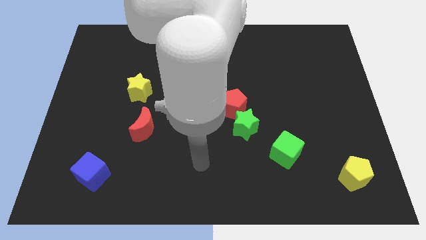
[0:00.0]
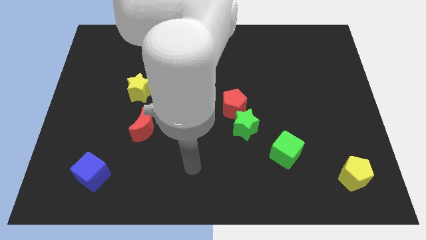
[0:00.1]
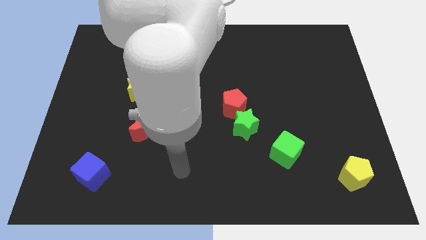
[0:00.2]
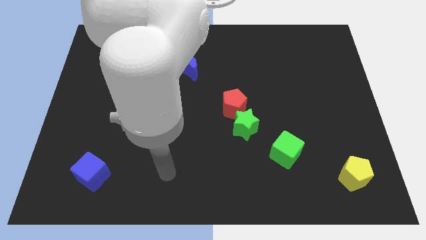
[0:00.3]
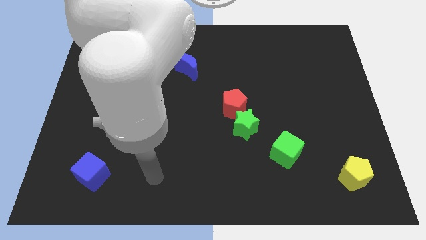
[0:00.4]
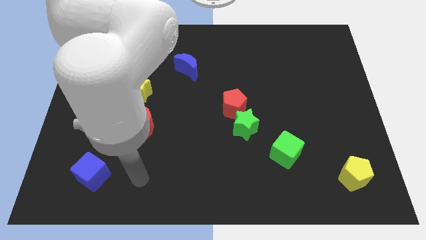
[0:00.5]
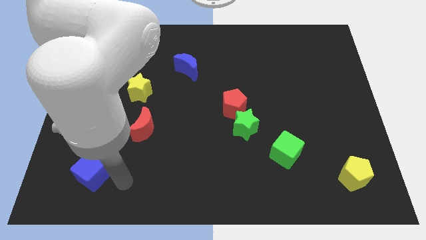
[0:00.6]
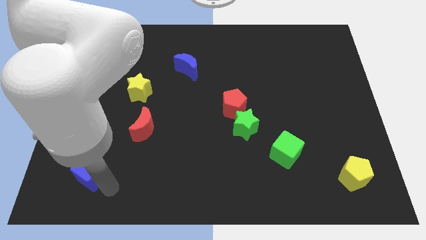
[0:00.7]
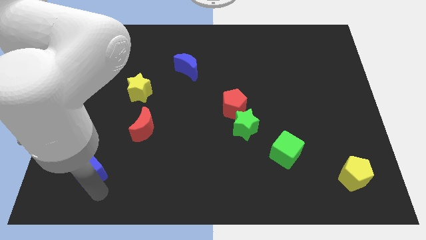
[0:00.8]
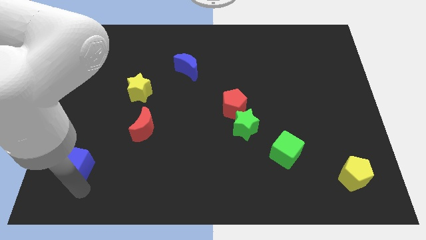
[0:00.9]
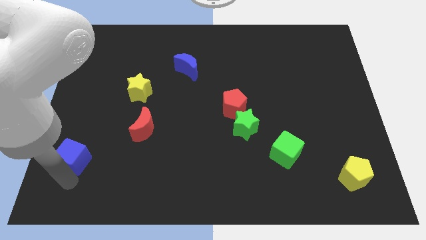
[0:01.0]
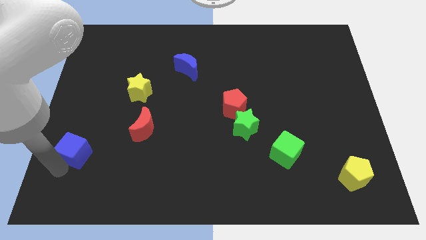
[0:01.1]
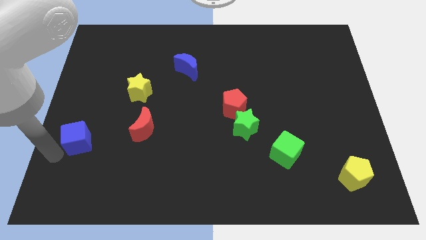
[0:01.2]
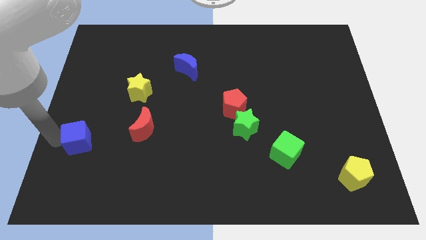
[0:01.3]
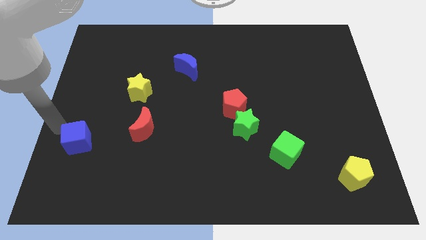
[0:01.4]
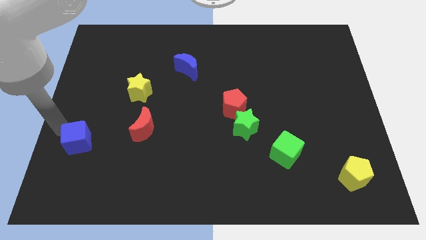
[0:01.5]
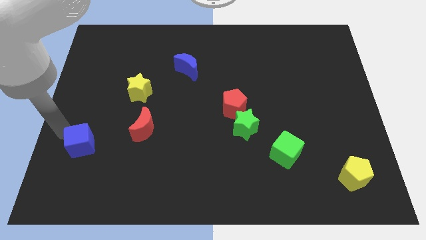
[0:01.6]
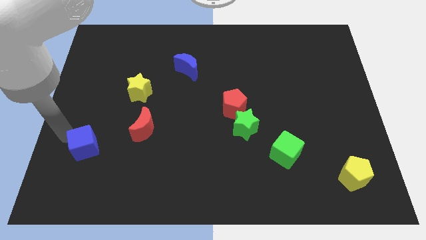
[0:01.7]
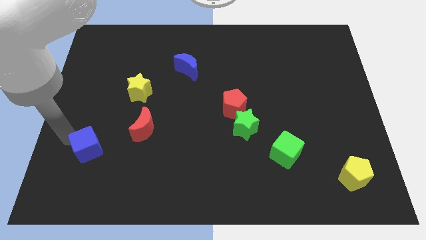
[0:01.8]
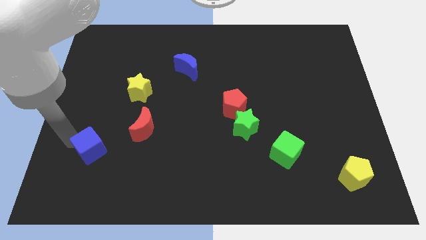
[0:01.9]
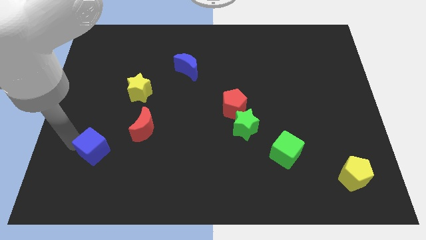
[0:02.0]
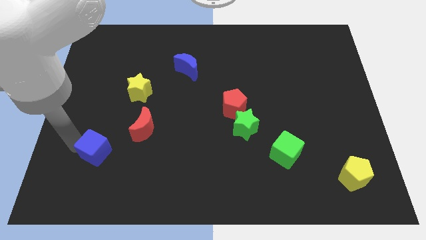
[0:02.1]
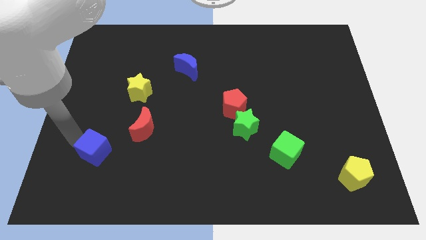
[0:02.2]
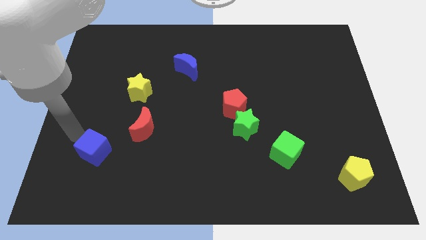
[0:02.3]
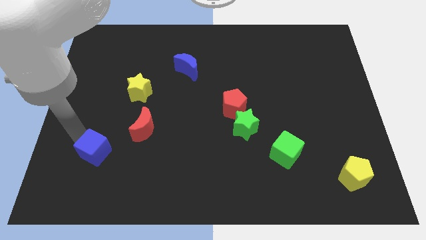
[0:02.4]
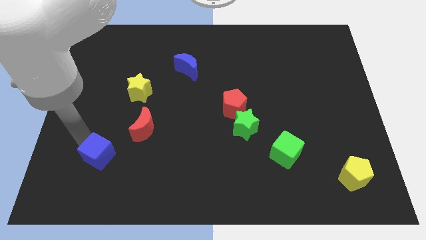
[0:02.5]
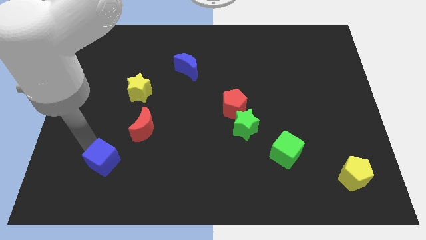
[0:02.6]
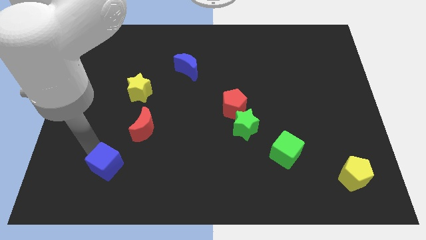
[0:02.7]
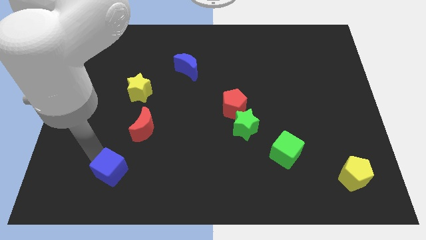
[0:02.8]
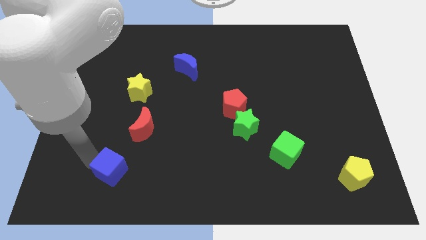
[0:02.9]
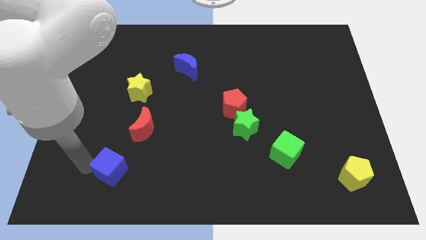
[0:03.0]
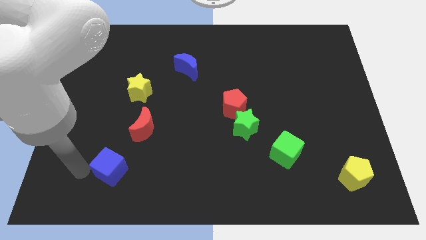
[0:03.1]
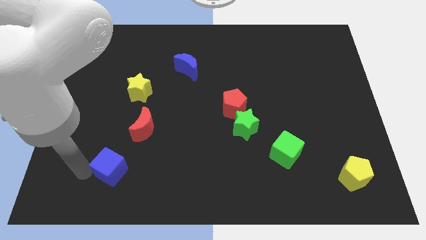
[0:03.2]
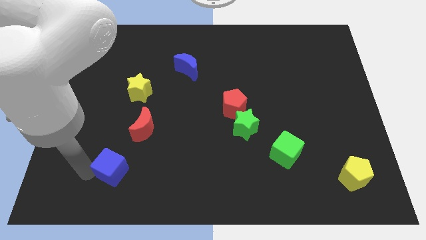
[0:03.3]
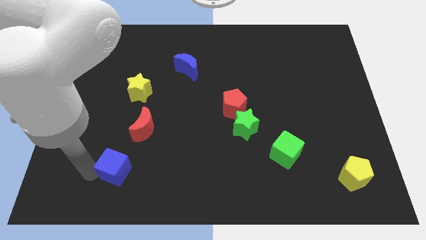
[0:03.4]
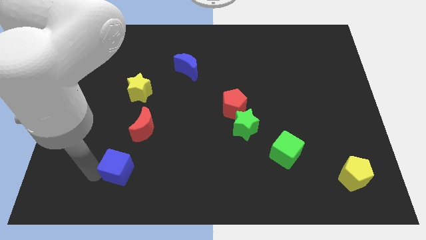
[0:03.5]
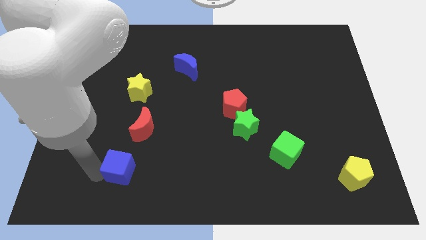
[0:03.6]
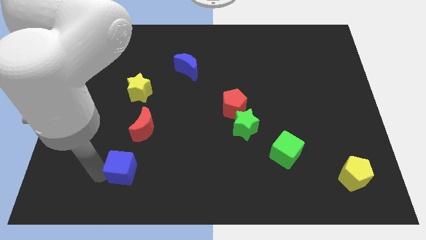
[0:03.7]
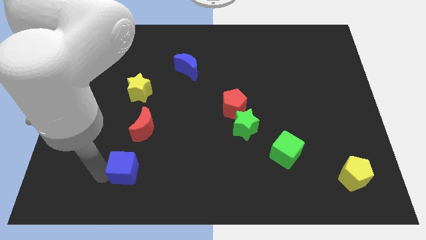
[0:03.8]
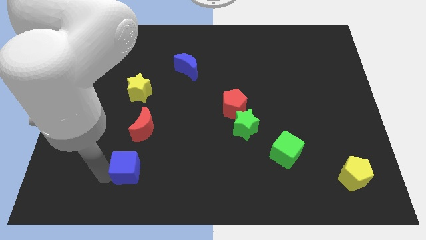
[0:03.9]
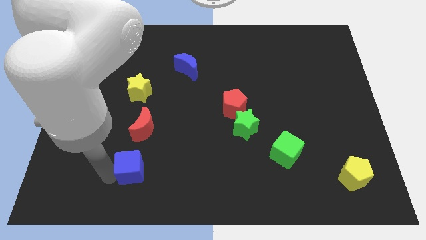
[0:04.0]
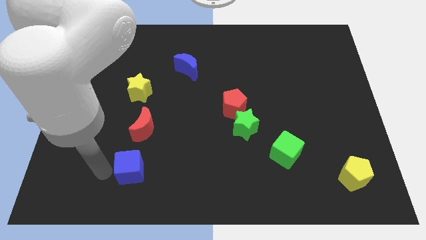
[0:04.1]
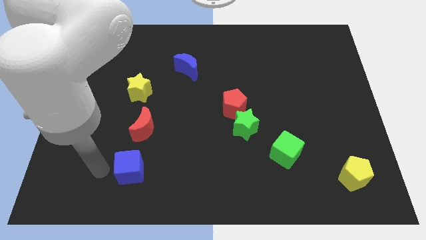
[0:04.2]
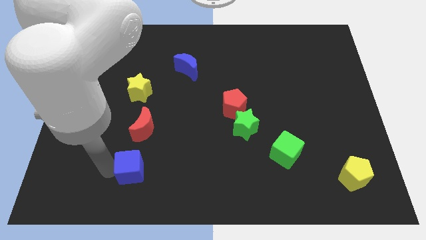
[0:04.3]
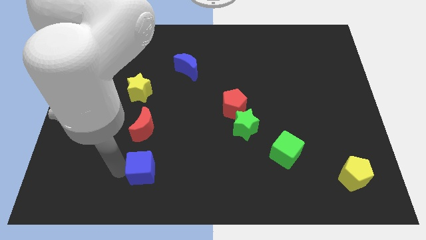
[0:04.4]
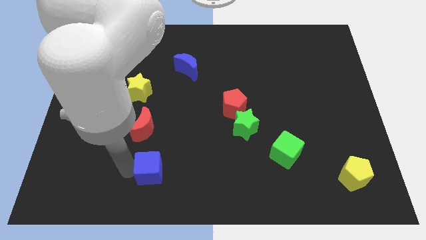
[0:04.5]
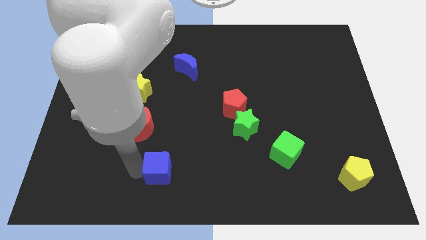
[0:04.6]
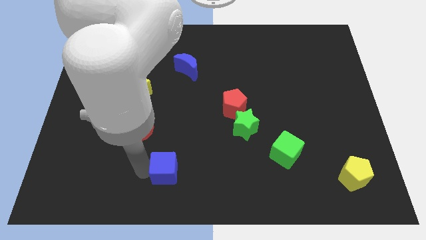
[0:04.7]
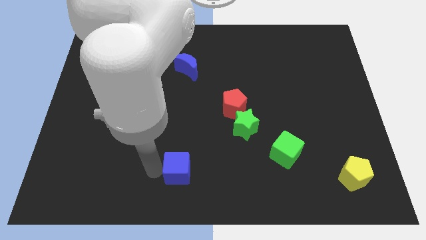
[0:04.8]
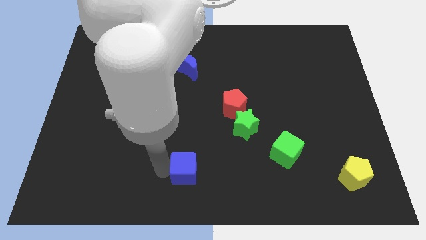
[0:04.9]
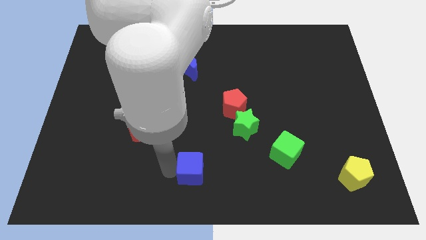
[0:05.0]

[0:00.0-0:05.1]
push the blue cube to the right

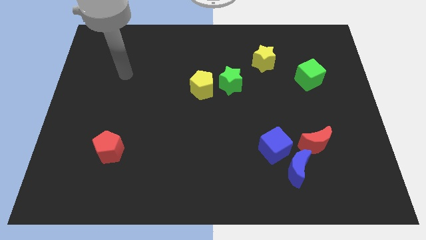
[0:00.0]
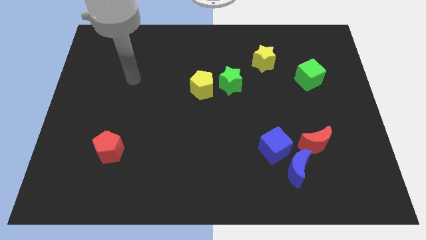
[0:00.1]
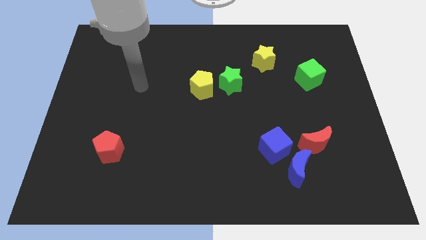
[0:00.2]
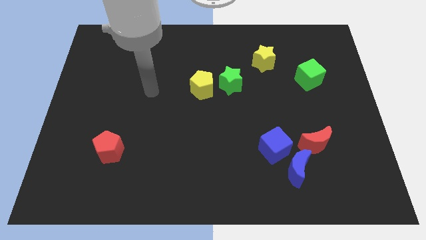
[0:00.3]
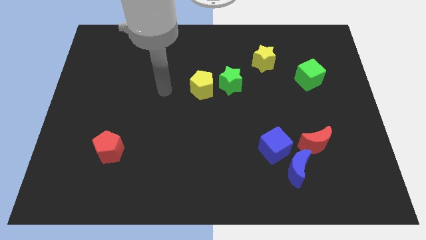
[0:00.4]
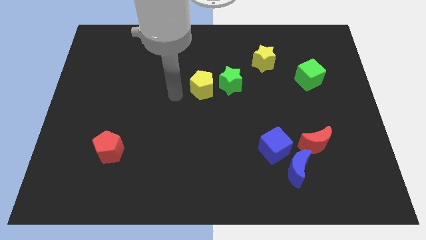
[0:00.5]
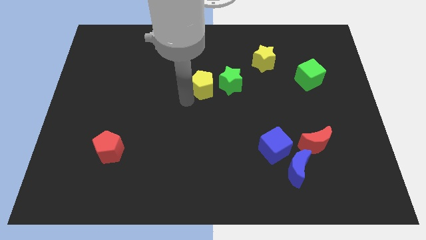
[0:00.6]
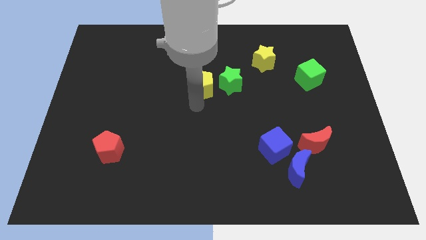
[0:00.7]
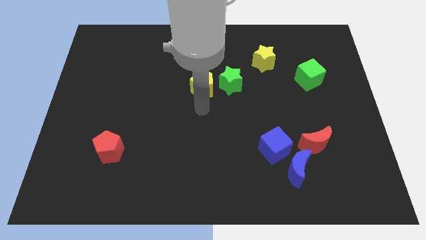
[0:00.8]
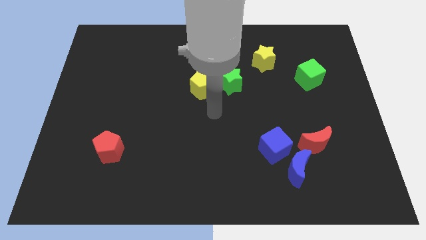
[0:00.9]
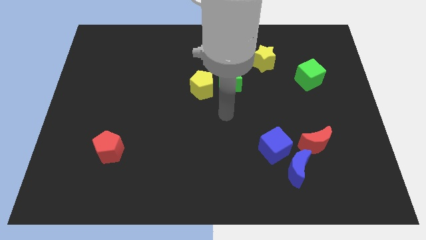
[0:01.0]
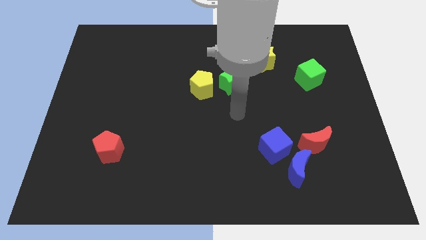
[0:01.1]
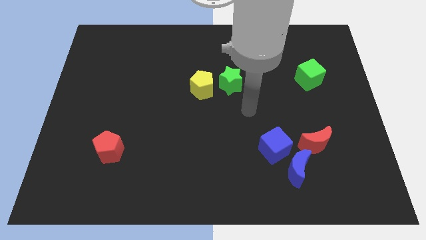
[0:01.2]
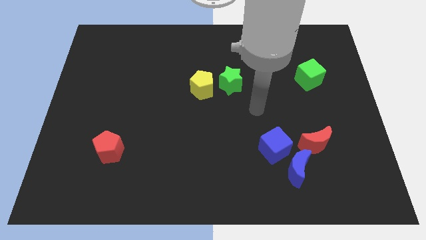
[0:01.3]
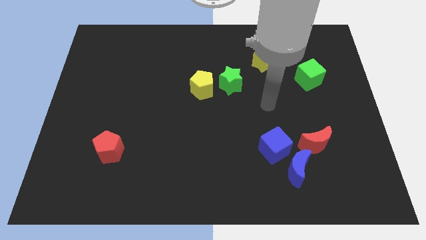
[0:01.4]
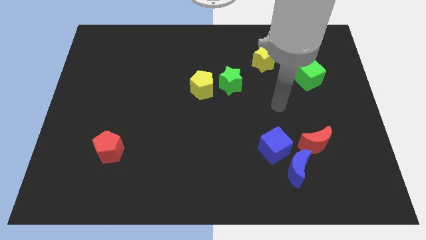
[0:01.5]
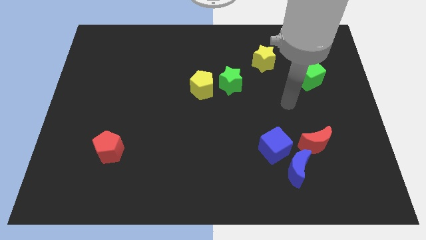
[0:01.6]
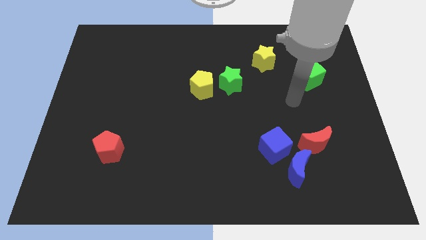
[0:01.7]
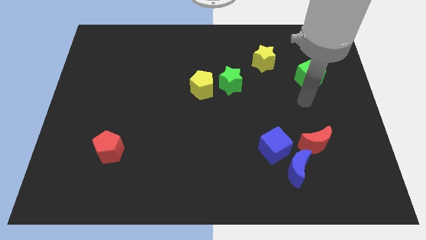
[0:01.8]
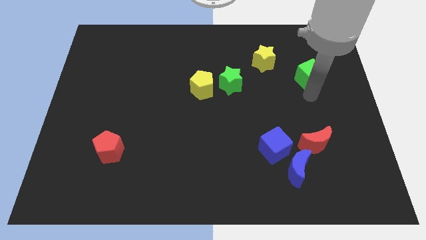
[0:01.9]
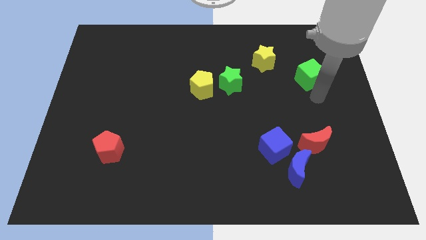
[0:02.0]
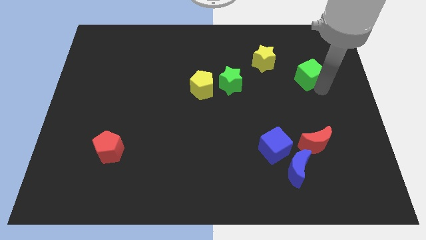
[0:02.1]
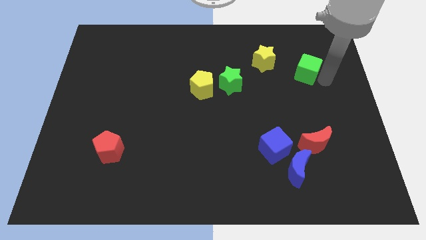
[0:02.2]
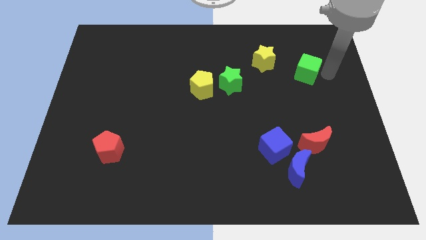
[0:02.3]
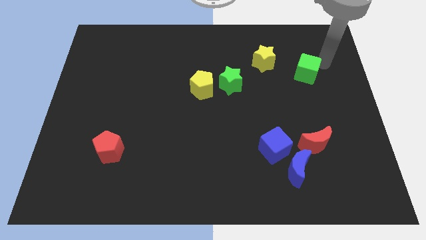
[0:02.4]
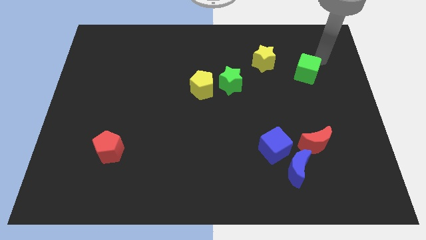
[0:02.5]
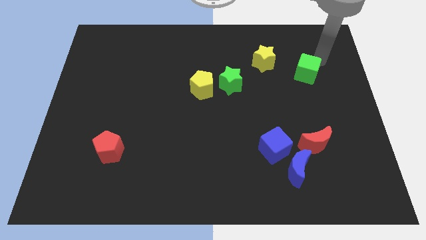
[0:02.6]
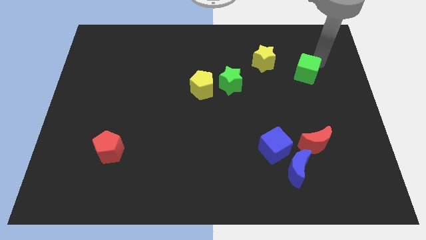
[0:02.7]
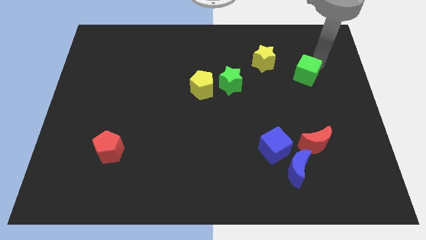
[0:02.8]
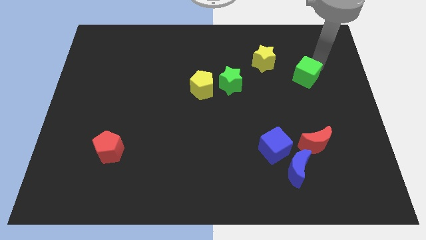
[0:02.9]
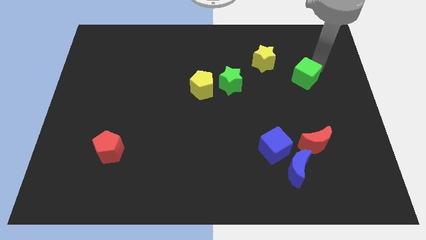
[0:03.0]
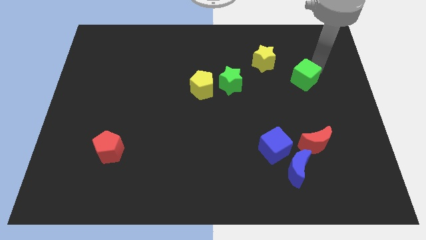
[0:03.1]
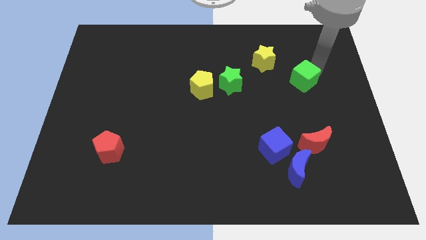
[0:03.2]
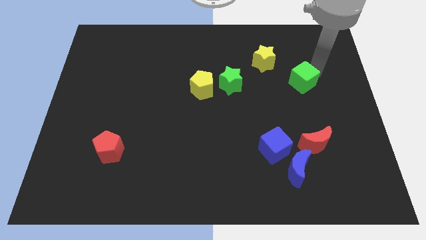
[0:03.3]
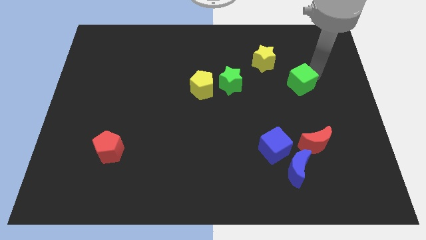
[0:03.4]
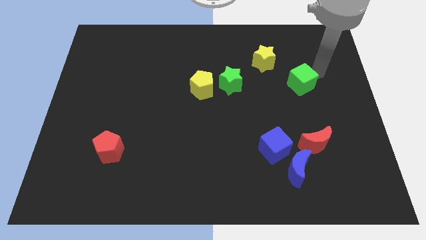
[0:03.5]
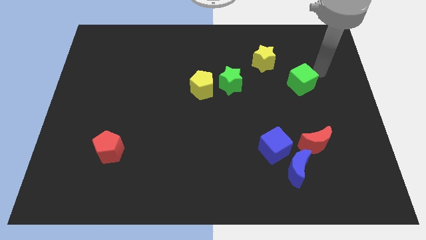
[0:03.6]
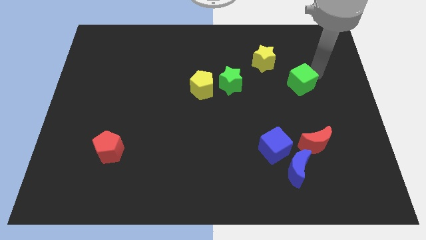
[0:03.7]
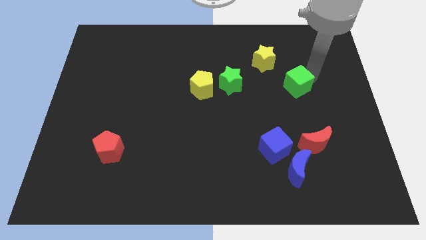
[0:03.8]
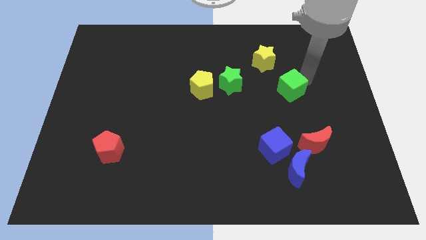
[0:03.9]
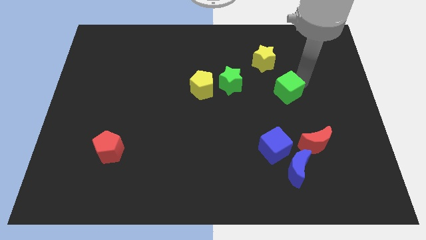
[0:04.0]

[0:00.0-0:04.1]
slide the green cube a little down and to the left diagonally
